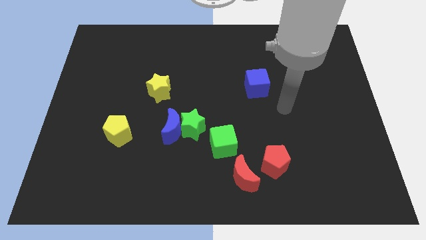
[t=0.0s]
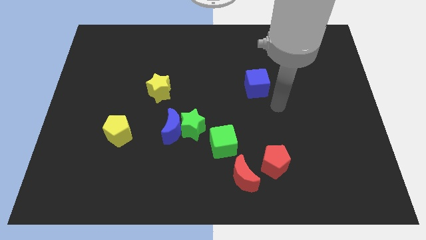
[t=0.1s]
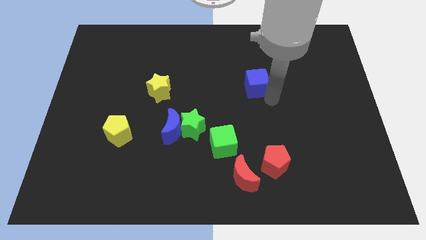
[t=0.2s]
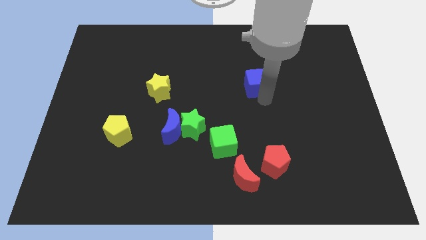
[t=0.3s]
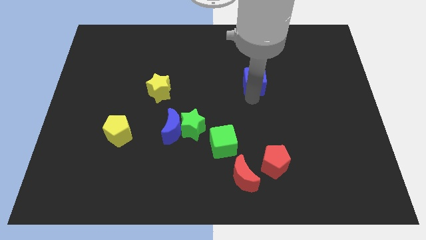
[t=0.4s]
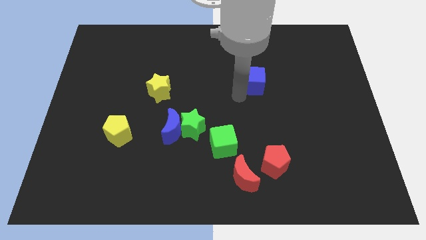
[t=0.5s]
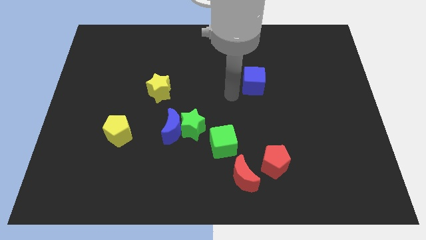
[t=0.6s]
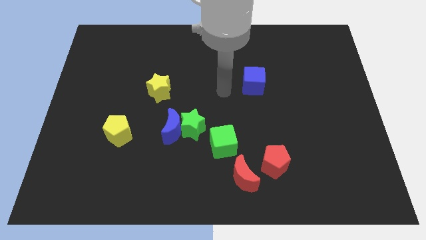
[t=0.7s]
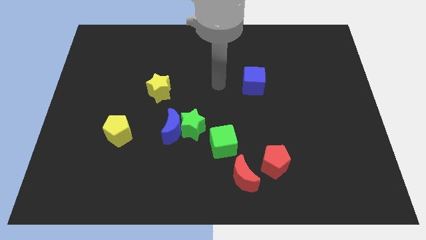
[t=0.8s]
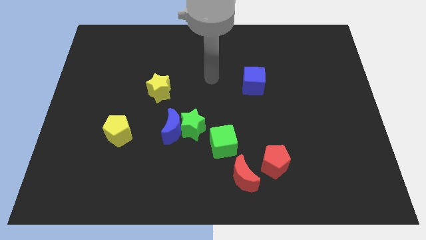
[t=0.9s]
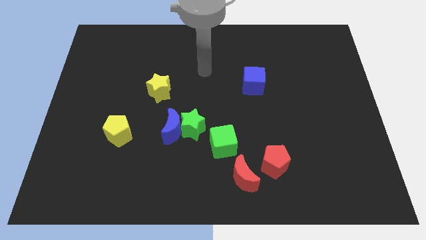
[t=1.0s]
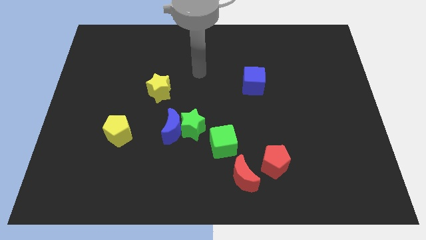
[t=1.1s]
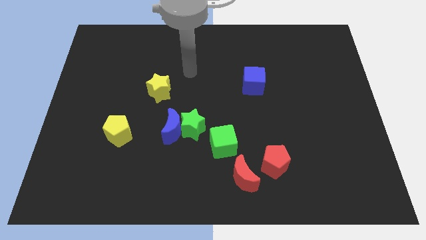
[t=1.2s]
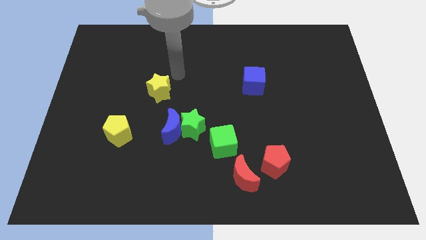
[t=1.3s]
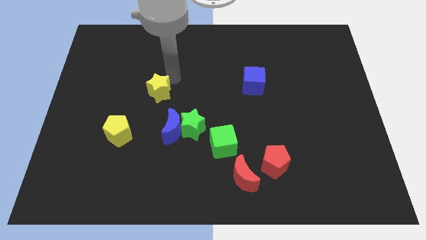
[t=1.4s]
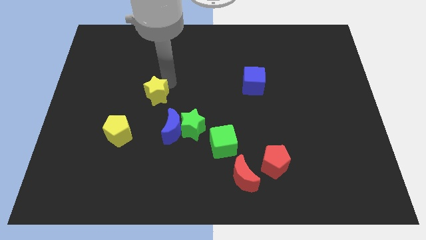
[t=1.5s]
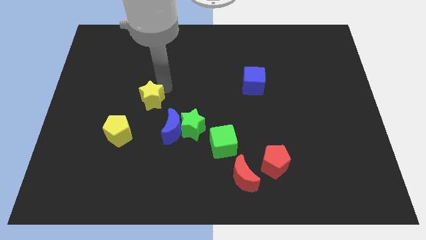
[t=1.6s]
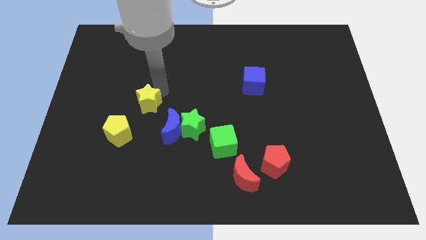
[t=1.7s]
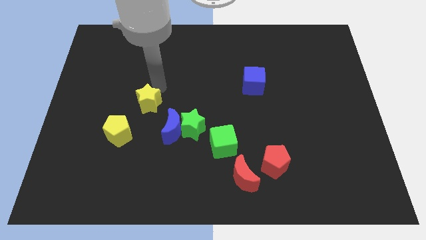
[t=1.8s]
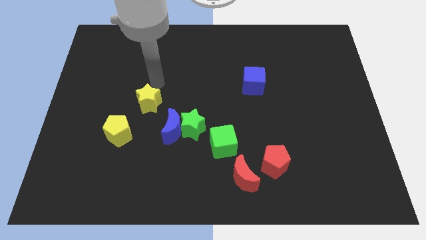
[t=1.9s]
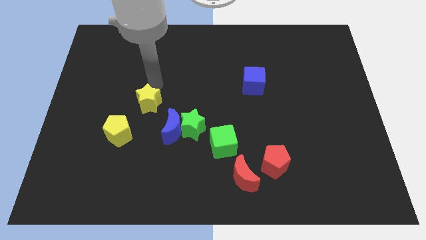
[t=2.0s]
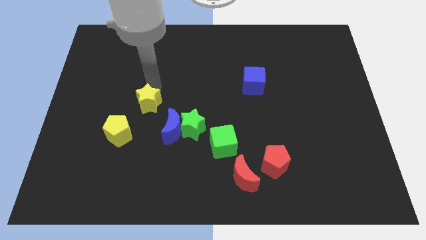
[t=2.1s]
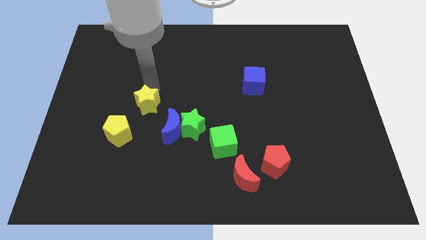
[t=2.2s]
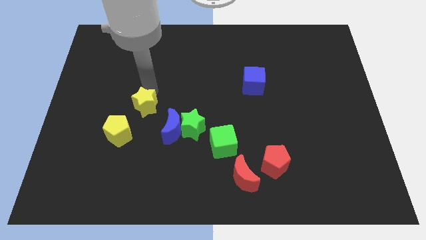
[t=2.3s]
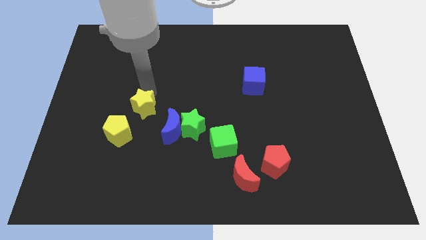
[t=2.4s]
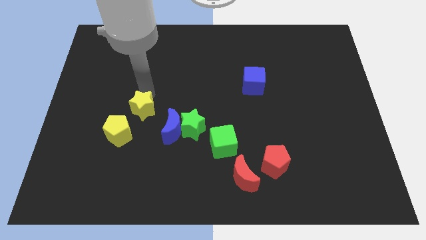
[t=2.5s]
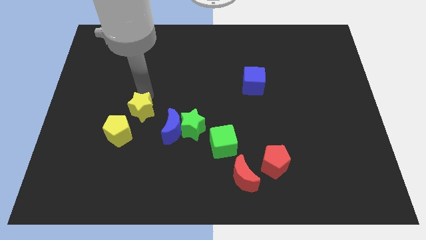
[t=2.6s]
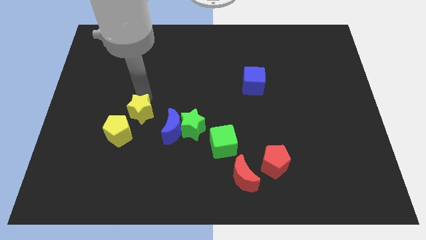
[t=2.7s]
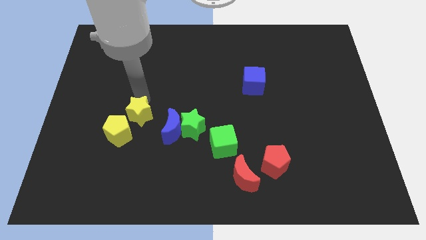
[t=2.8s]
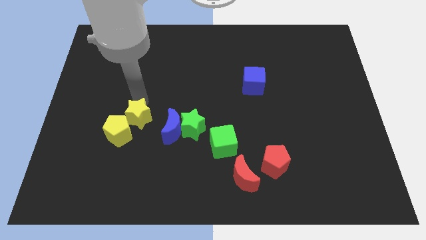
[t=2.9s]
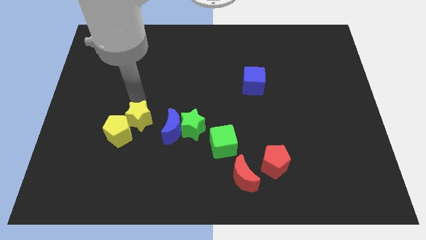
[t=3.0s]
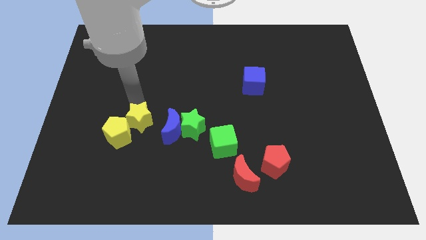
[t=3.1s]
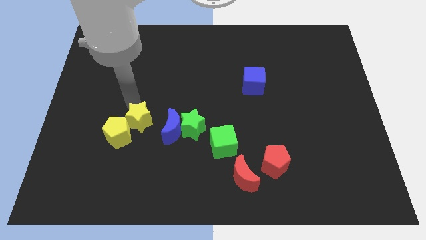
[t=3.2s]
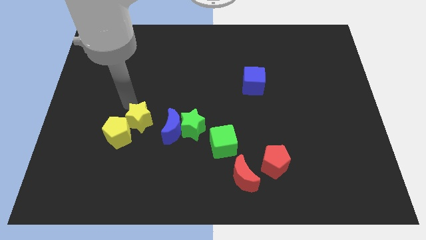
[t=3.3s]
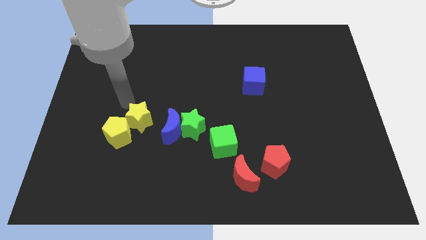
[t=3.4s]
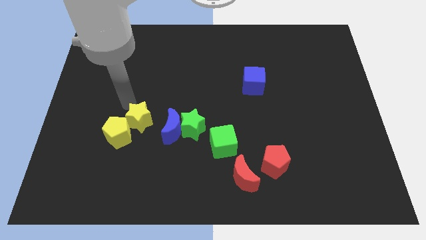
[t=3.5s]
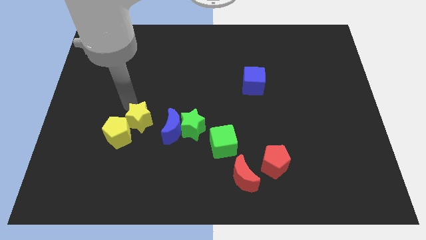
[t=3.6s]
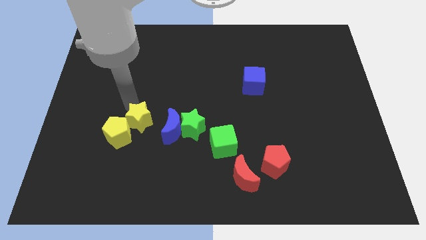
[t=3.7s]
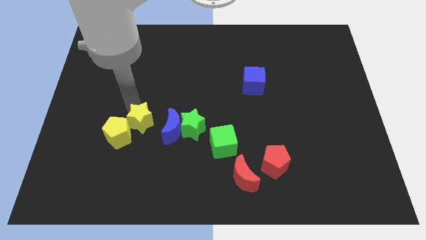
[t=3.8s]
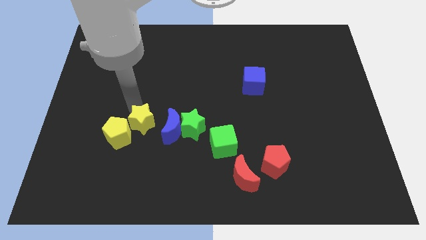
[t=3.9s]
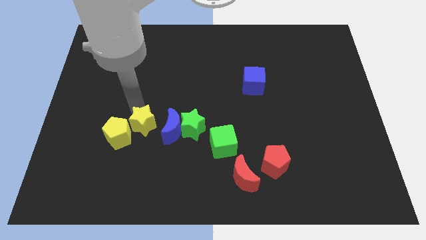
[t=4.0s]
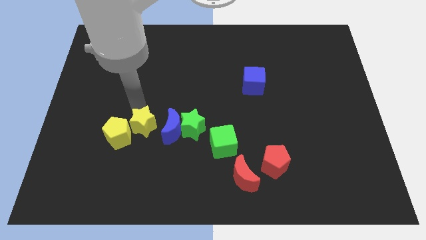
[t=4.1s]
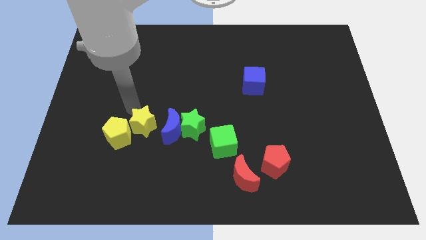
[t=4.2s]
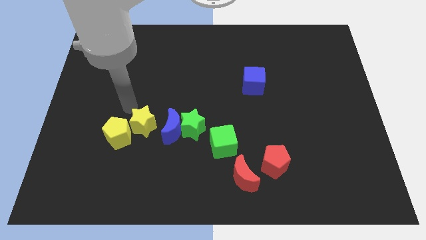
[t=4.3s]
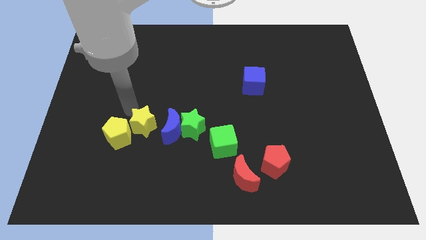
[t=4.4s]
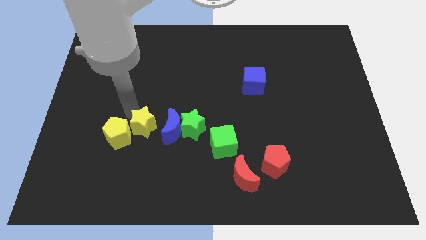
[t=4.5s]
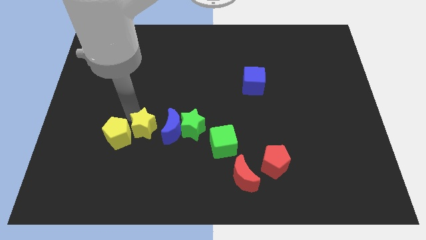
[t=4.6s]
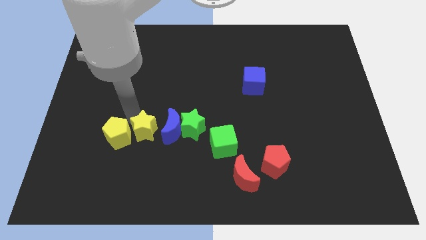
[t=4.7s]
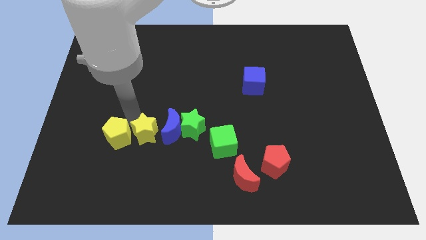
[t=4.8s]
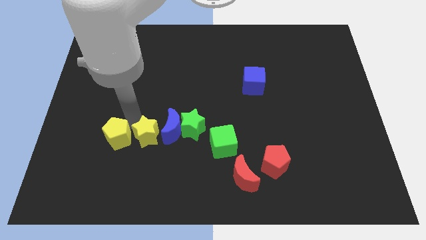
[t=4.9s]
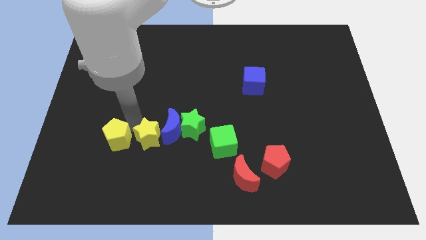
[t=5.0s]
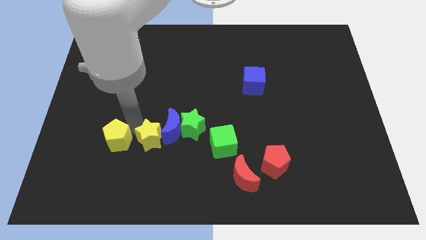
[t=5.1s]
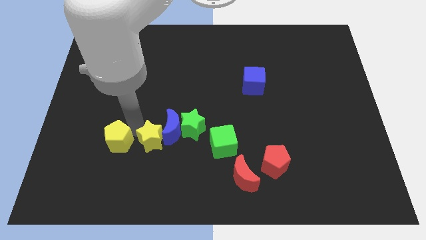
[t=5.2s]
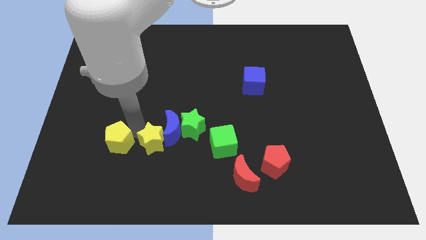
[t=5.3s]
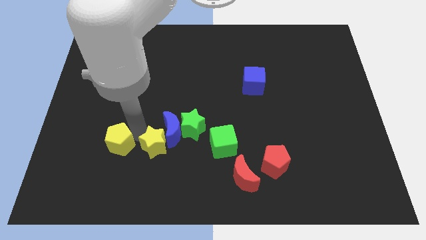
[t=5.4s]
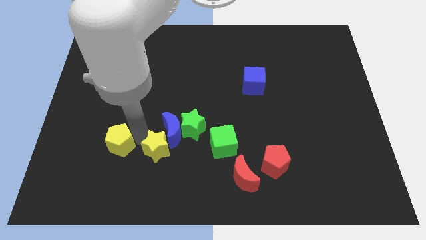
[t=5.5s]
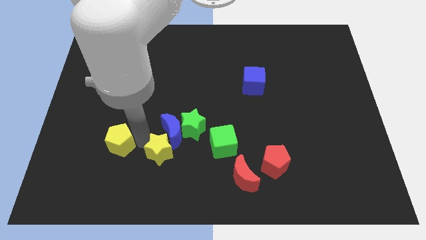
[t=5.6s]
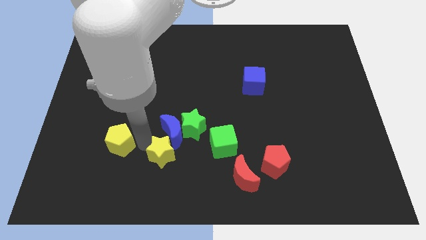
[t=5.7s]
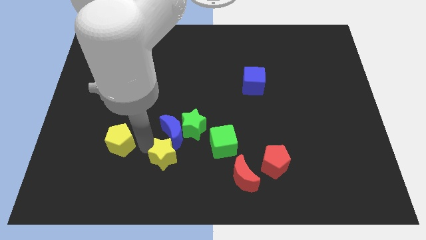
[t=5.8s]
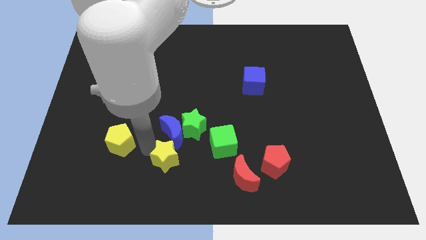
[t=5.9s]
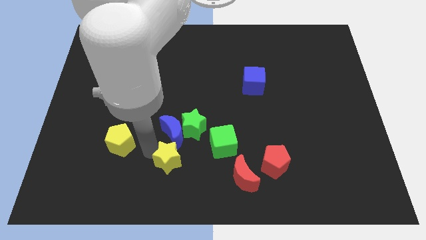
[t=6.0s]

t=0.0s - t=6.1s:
put the yellow star to the bottom right of the blue moon
